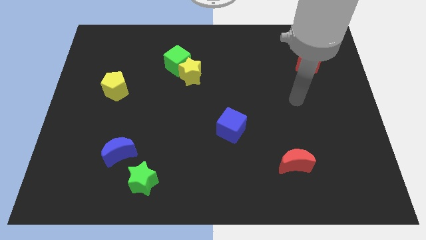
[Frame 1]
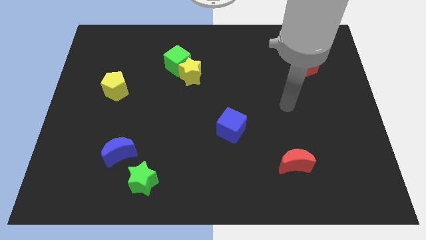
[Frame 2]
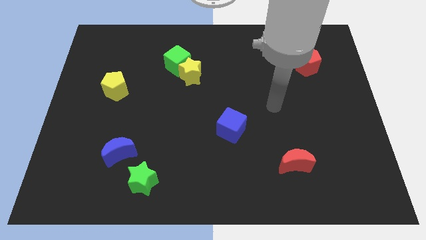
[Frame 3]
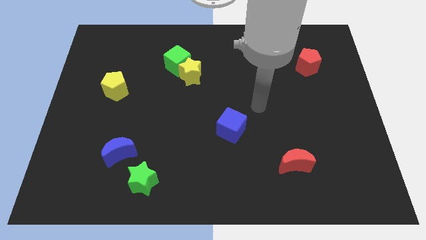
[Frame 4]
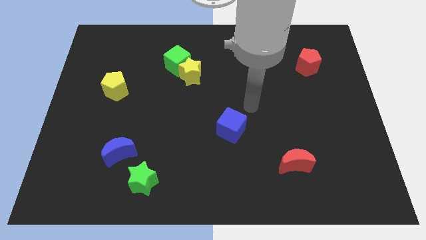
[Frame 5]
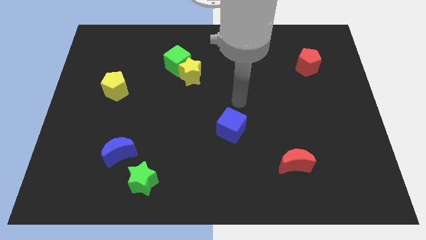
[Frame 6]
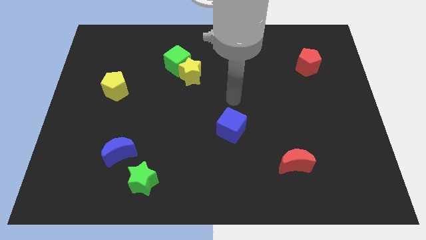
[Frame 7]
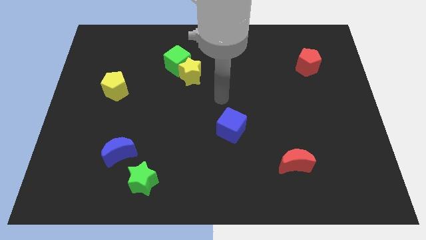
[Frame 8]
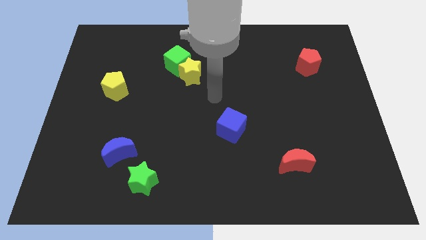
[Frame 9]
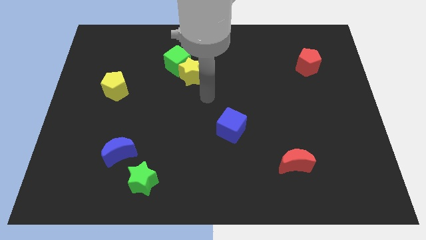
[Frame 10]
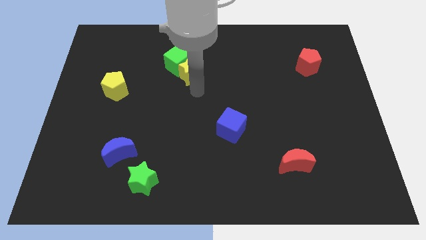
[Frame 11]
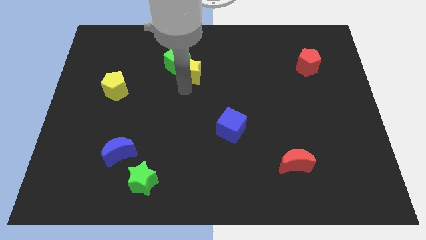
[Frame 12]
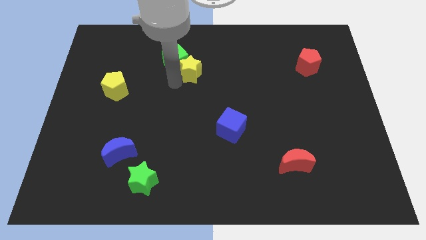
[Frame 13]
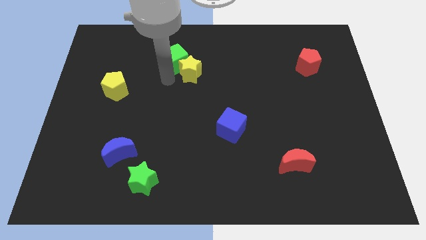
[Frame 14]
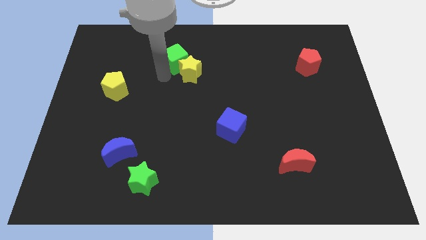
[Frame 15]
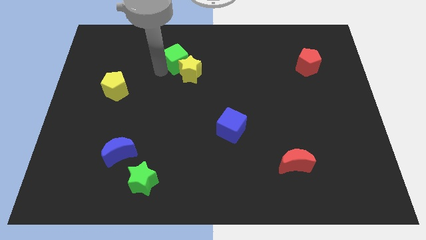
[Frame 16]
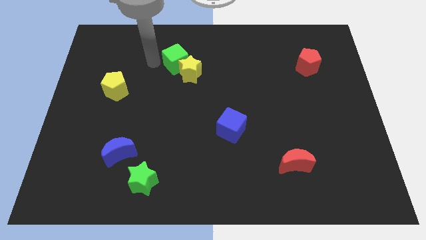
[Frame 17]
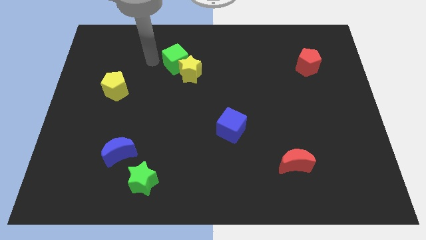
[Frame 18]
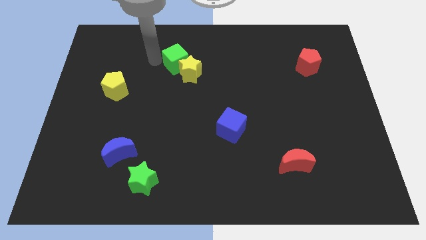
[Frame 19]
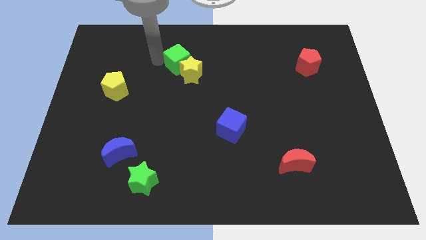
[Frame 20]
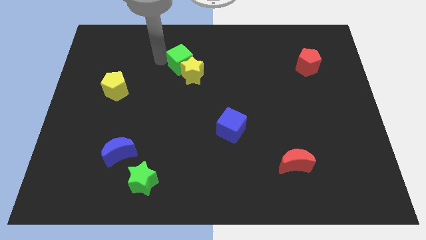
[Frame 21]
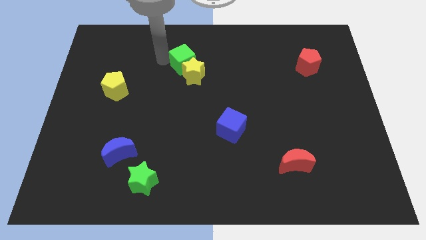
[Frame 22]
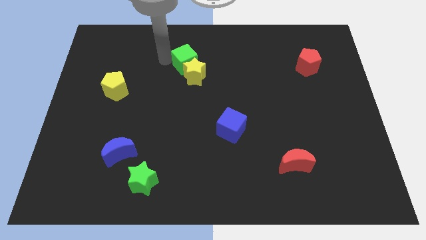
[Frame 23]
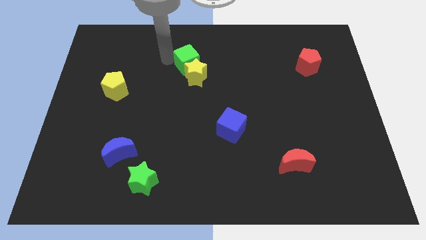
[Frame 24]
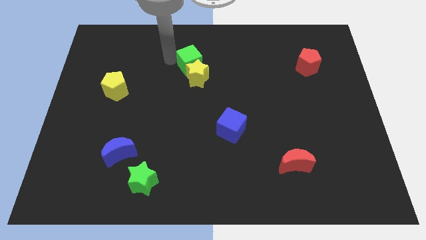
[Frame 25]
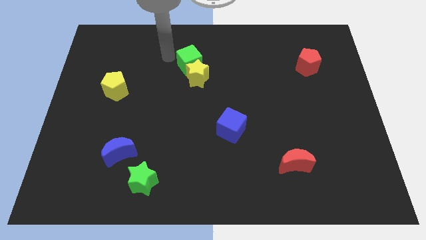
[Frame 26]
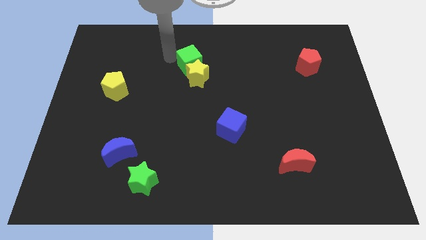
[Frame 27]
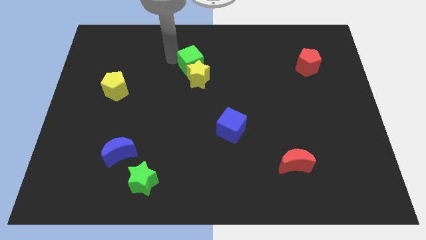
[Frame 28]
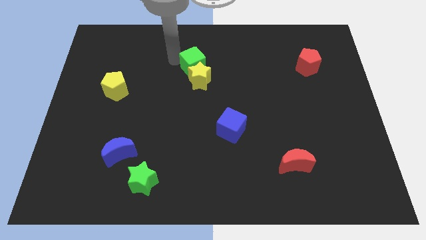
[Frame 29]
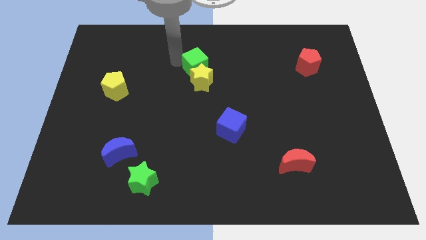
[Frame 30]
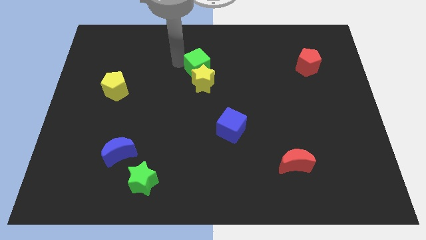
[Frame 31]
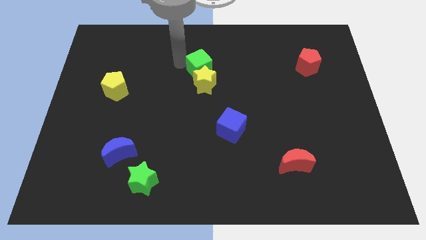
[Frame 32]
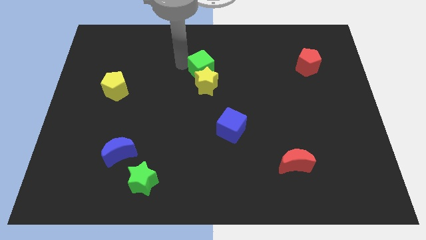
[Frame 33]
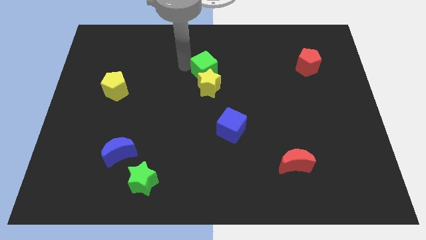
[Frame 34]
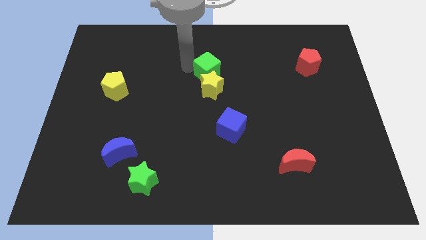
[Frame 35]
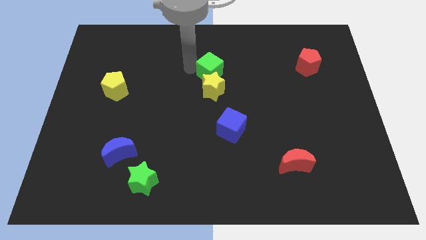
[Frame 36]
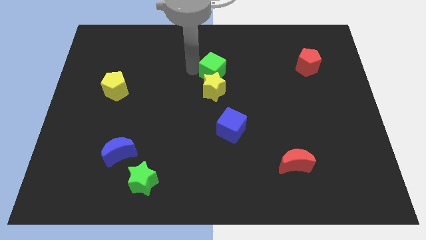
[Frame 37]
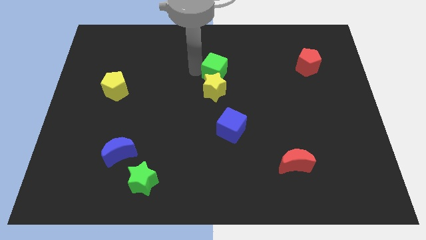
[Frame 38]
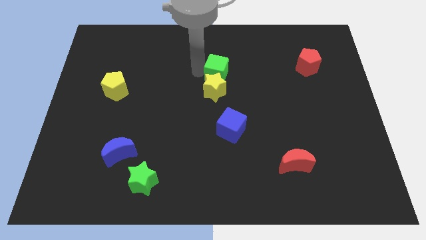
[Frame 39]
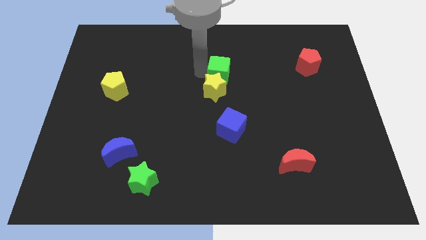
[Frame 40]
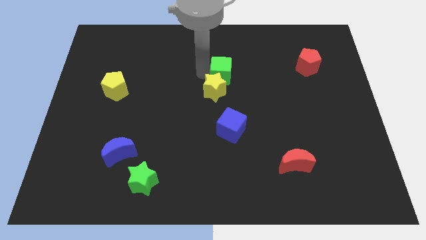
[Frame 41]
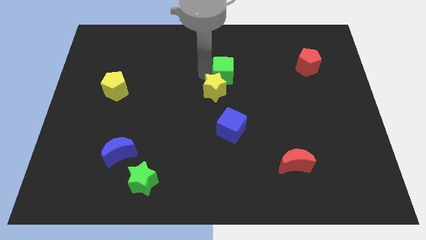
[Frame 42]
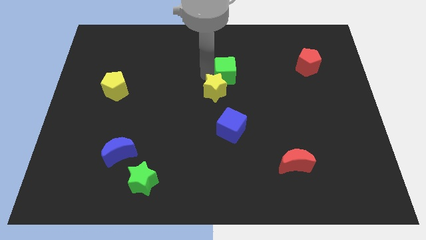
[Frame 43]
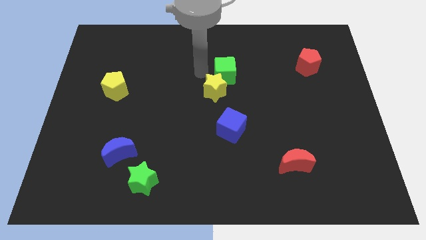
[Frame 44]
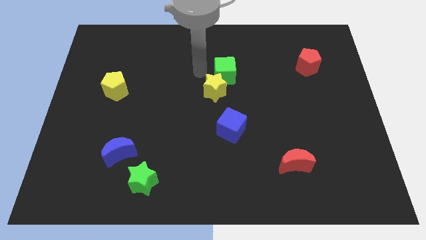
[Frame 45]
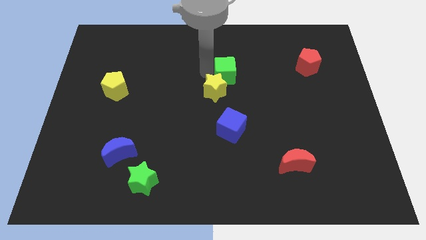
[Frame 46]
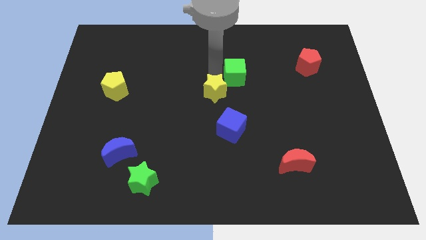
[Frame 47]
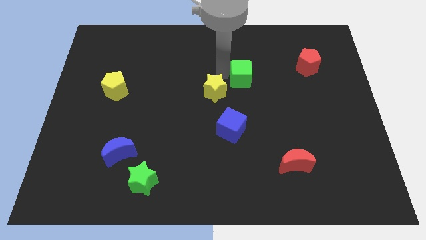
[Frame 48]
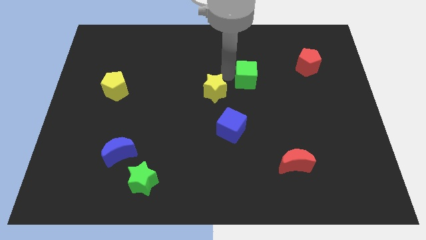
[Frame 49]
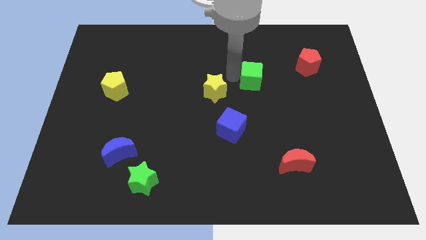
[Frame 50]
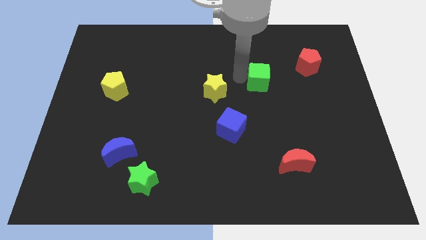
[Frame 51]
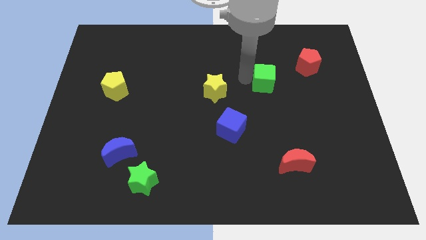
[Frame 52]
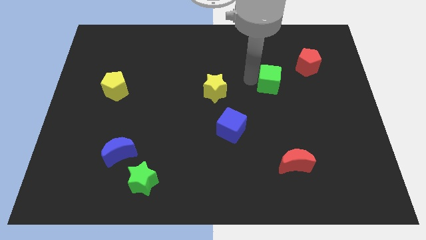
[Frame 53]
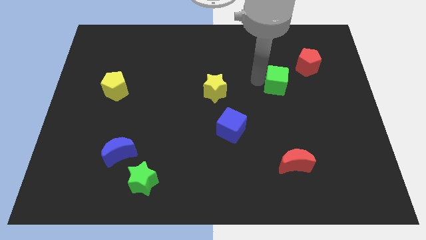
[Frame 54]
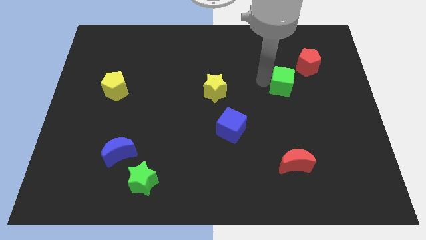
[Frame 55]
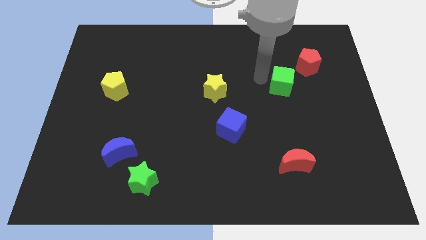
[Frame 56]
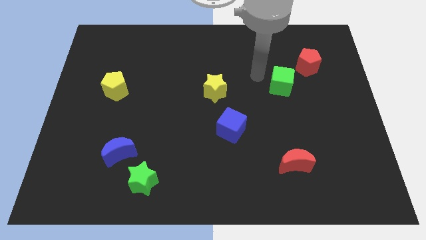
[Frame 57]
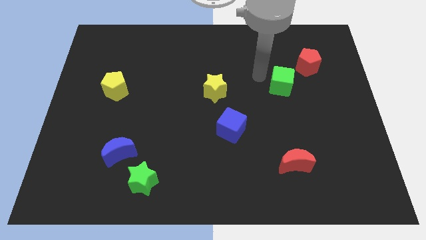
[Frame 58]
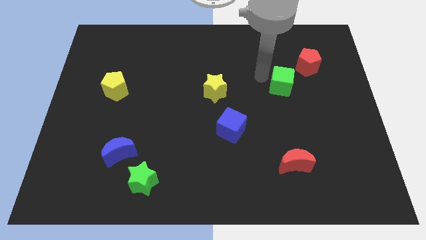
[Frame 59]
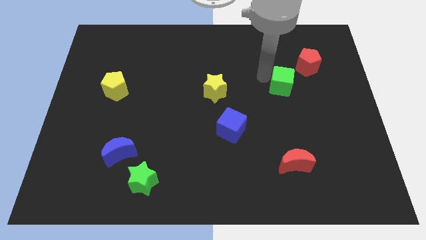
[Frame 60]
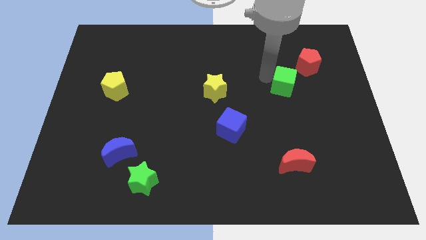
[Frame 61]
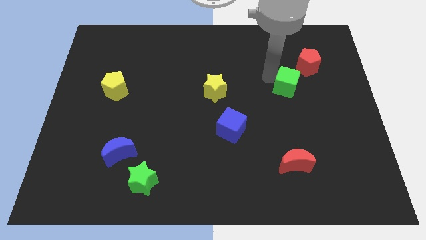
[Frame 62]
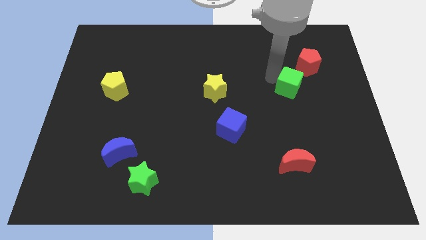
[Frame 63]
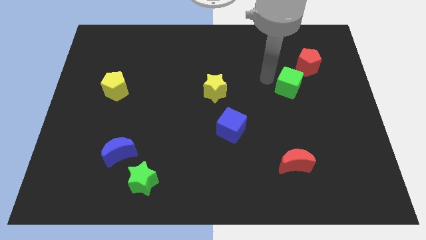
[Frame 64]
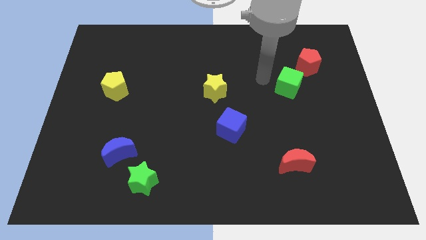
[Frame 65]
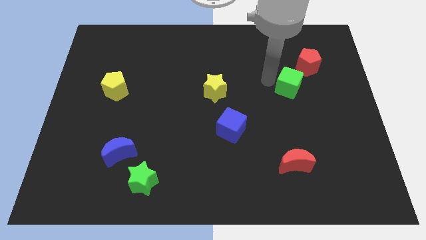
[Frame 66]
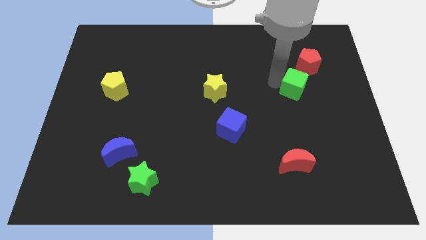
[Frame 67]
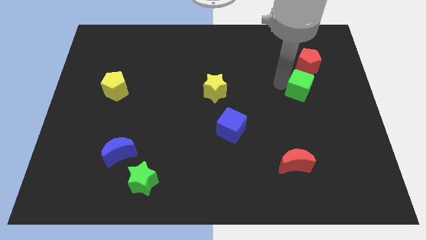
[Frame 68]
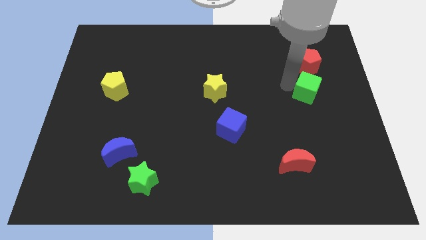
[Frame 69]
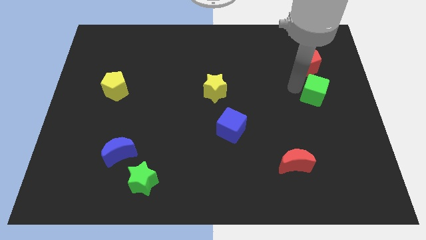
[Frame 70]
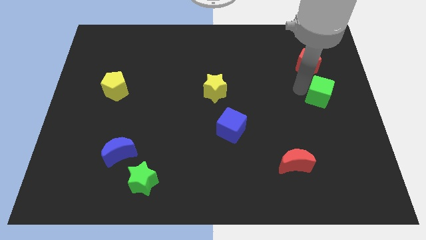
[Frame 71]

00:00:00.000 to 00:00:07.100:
move the green cube to the center right
